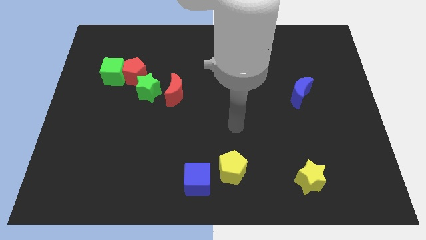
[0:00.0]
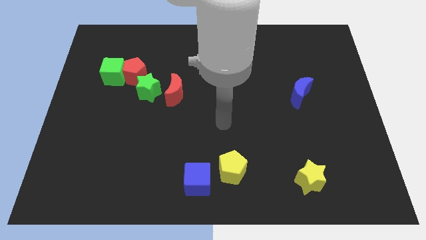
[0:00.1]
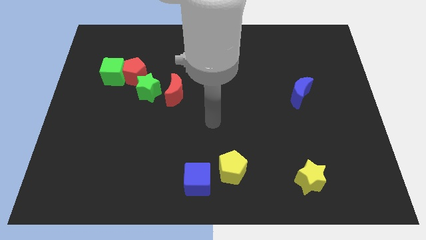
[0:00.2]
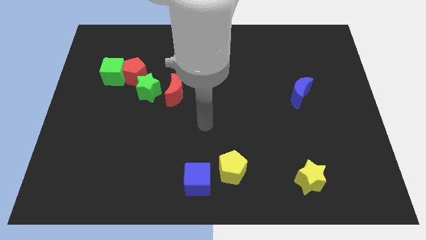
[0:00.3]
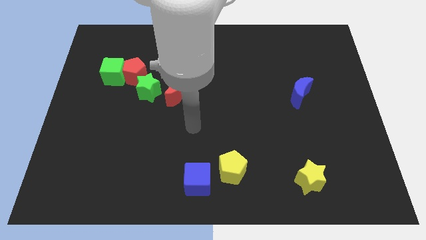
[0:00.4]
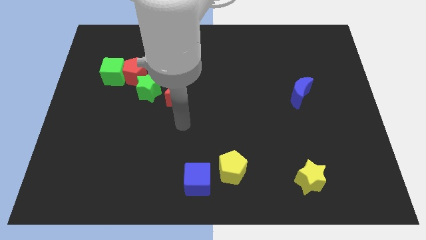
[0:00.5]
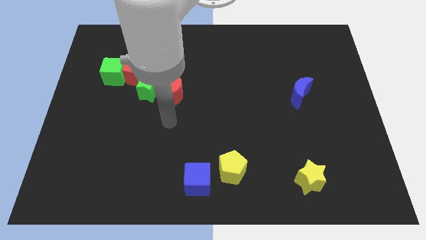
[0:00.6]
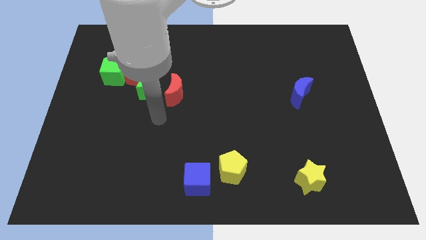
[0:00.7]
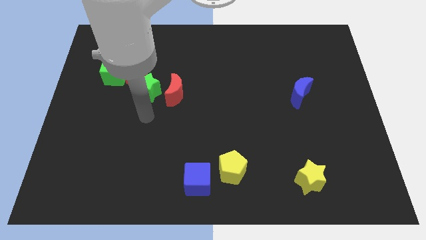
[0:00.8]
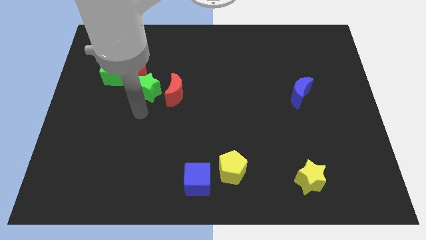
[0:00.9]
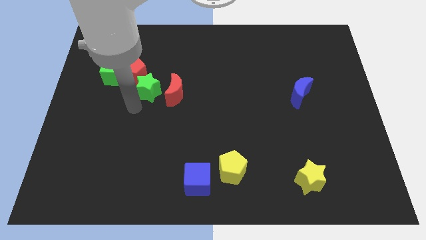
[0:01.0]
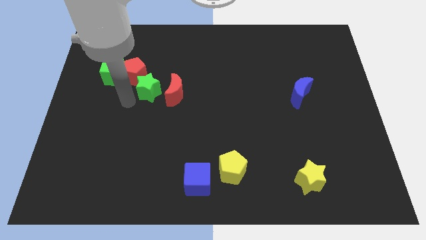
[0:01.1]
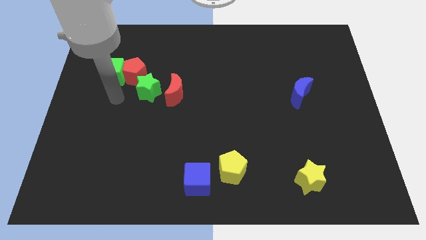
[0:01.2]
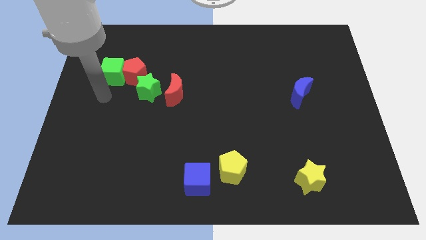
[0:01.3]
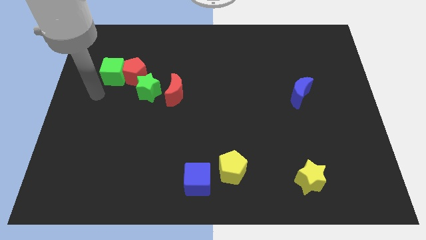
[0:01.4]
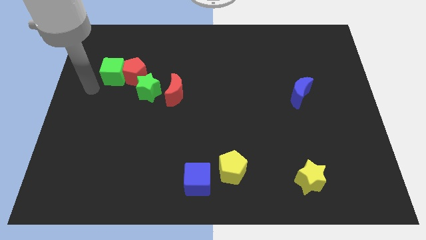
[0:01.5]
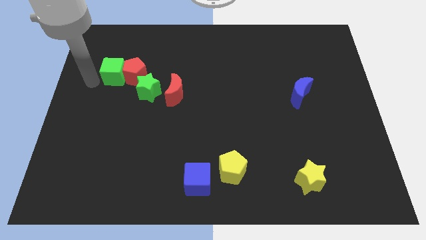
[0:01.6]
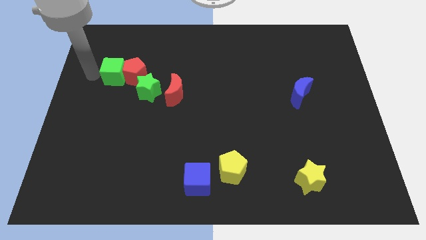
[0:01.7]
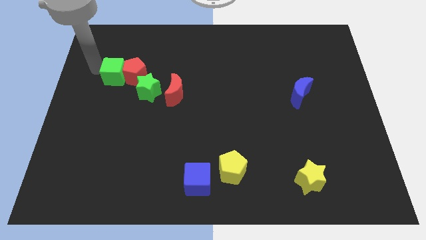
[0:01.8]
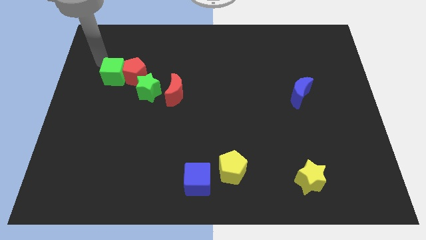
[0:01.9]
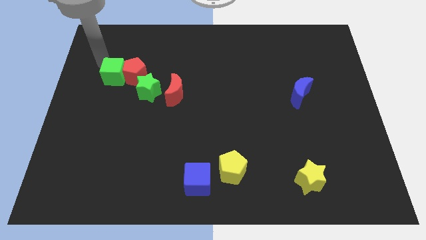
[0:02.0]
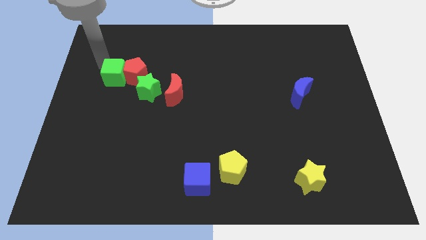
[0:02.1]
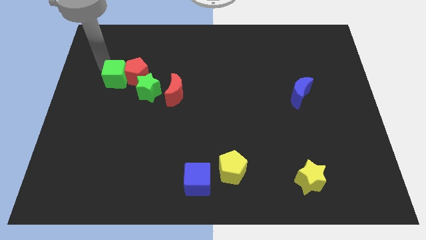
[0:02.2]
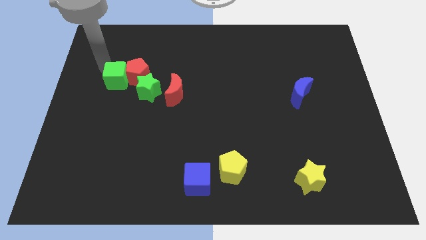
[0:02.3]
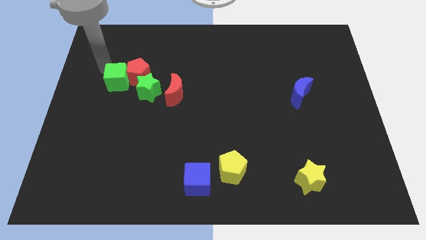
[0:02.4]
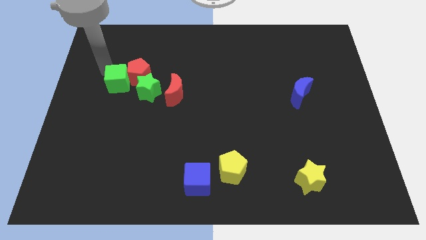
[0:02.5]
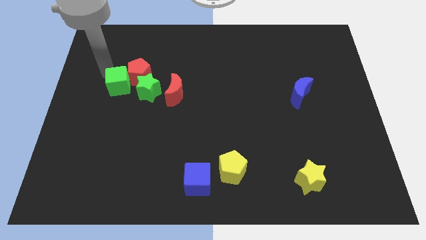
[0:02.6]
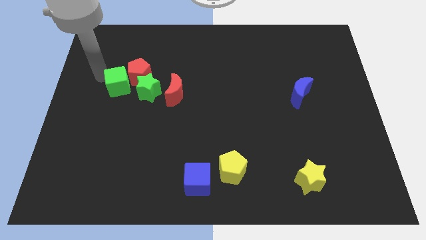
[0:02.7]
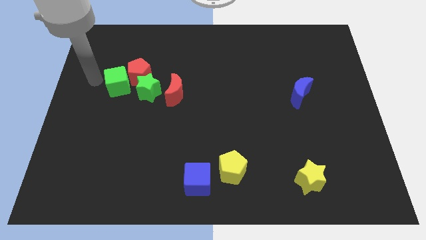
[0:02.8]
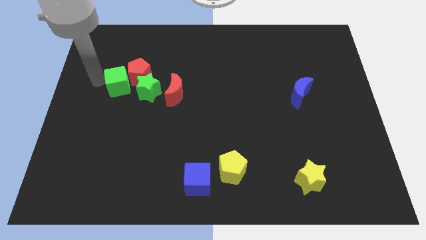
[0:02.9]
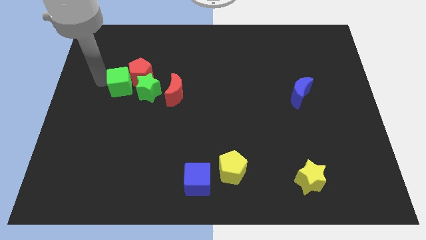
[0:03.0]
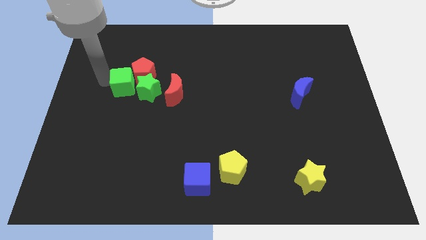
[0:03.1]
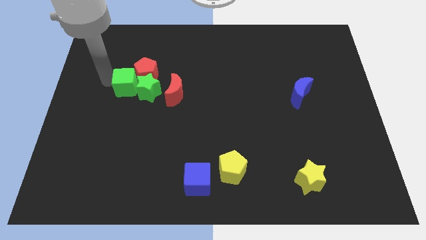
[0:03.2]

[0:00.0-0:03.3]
put the green cube close to the green star

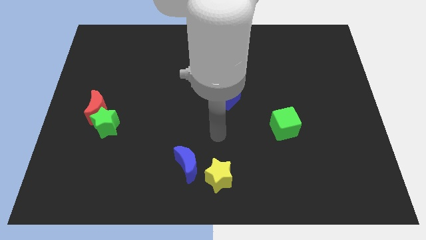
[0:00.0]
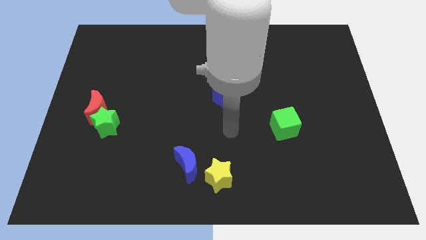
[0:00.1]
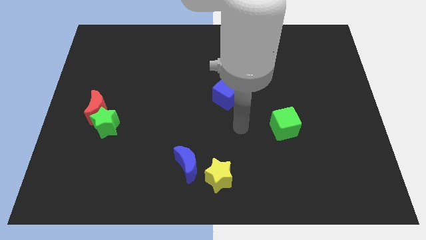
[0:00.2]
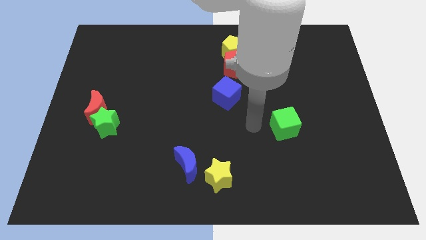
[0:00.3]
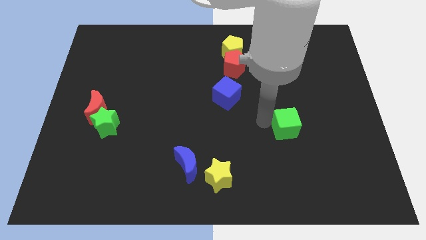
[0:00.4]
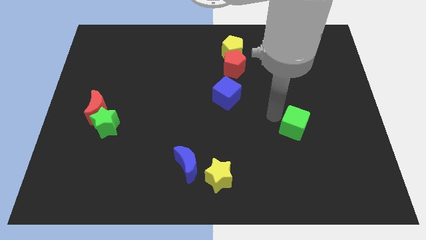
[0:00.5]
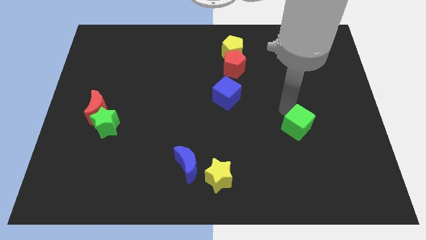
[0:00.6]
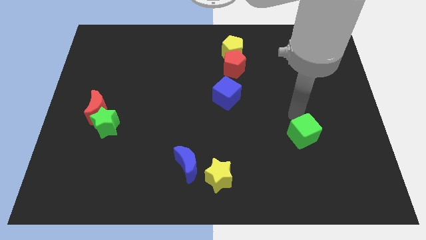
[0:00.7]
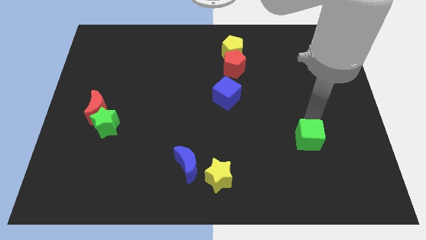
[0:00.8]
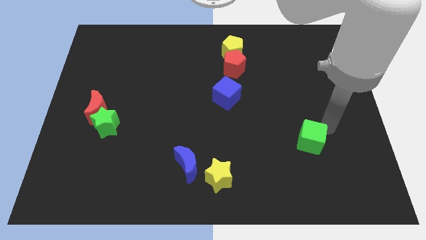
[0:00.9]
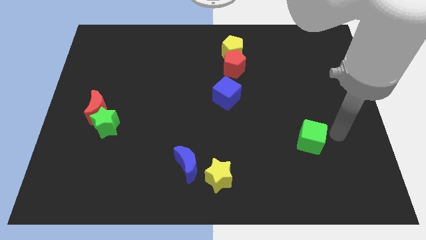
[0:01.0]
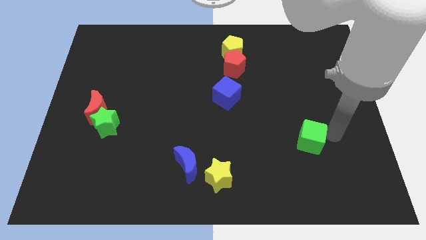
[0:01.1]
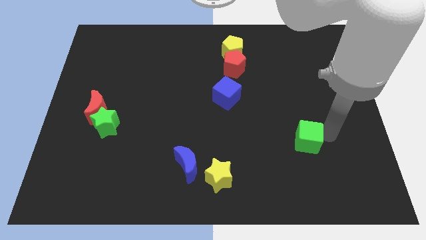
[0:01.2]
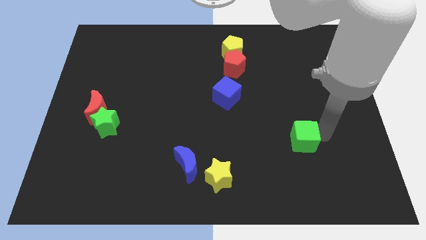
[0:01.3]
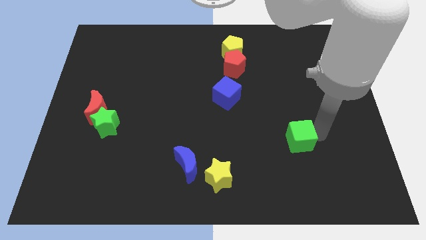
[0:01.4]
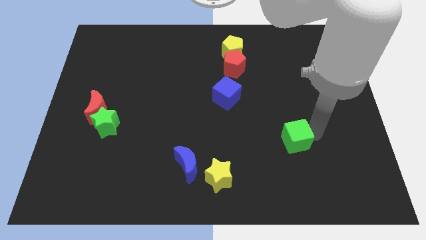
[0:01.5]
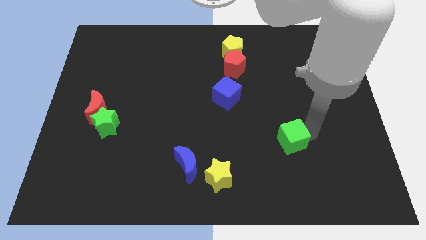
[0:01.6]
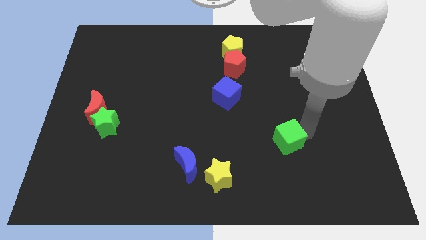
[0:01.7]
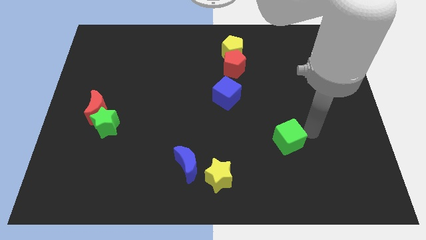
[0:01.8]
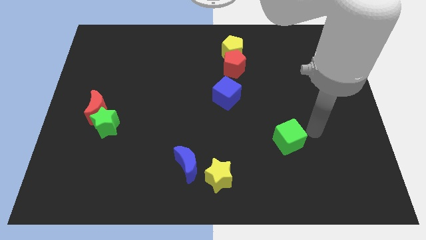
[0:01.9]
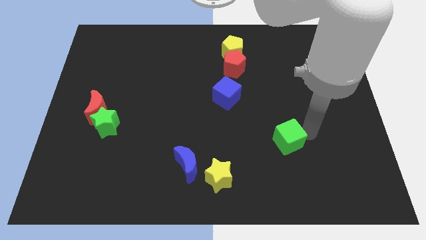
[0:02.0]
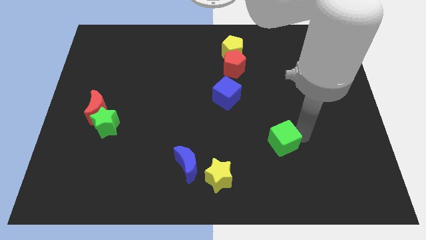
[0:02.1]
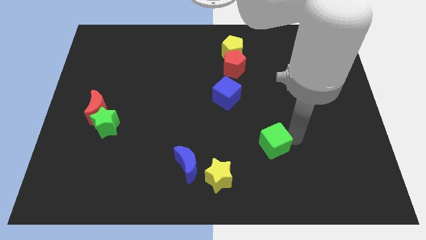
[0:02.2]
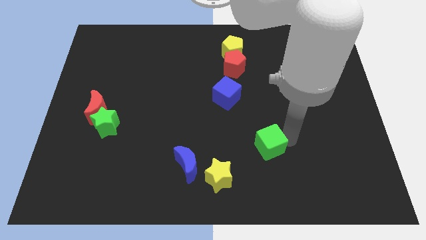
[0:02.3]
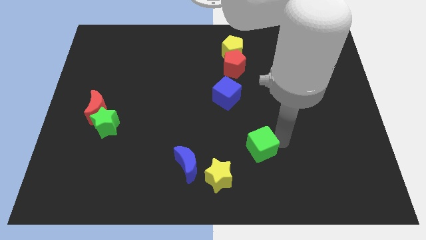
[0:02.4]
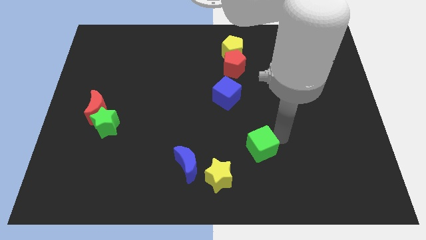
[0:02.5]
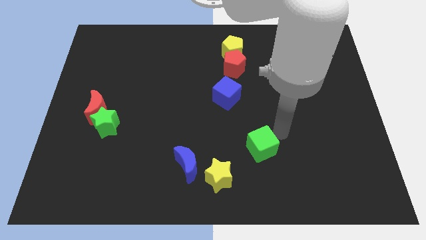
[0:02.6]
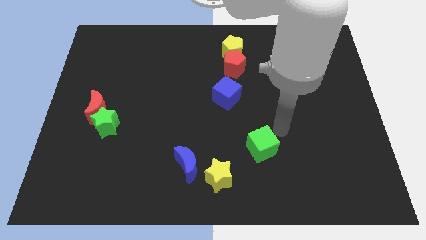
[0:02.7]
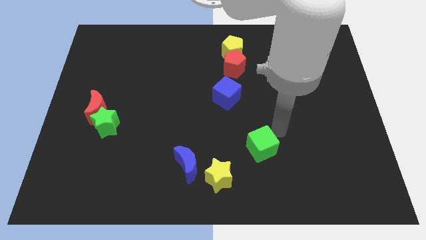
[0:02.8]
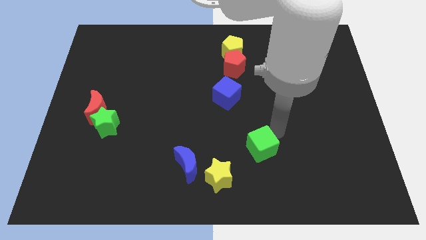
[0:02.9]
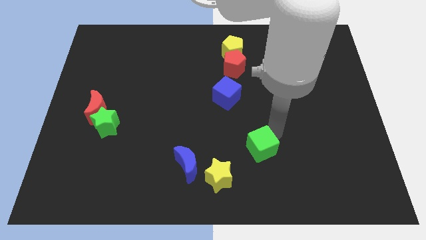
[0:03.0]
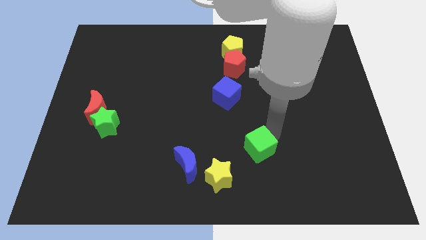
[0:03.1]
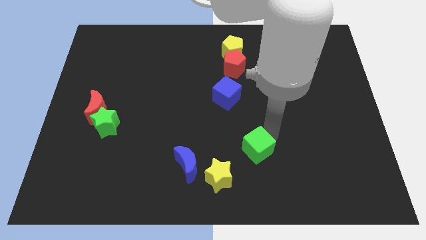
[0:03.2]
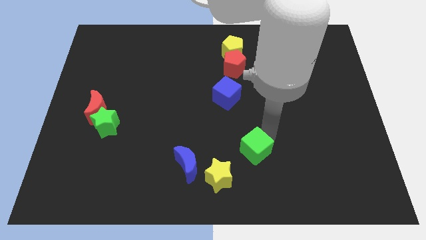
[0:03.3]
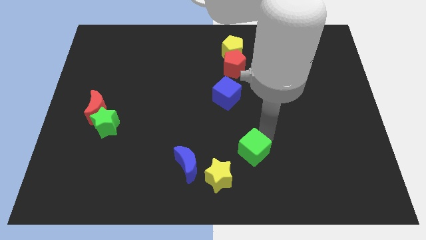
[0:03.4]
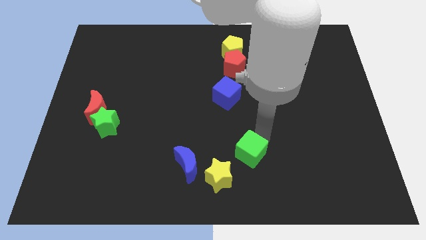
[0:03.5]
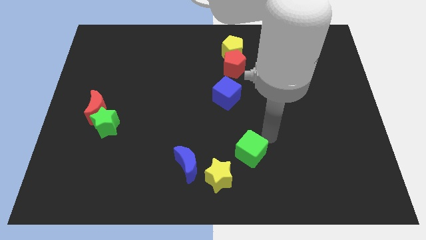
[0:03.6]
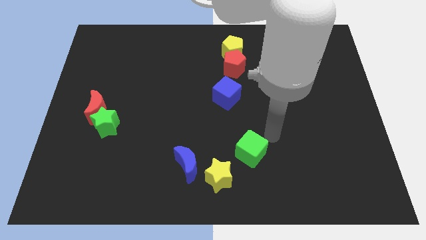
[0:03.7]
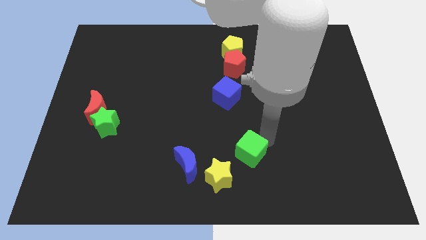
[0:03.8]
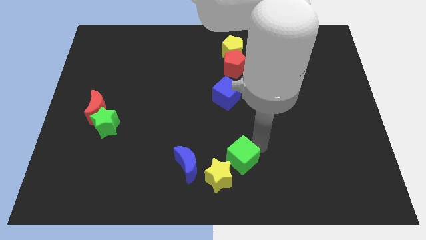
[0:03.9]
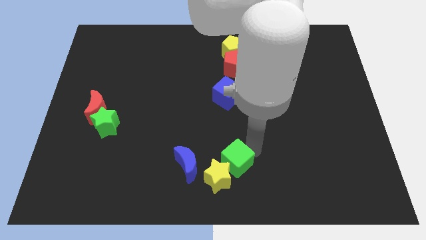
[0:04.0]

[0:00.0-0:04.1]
slide the green cube next to the yellow star

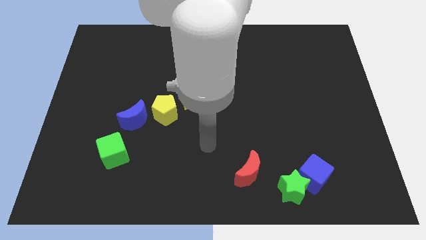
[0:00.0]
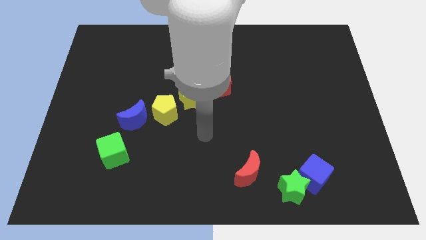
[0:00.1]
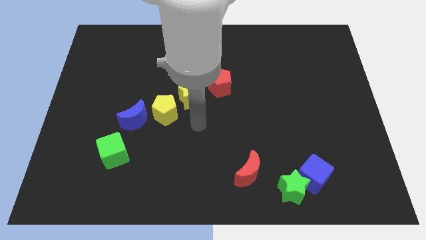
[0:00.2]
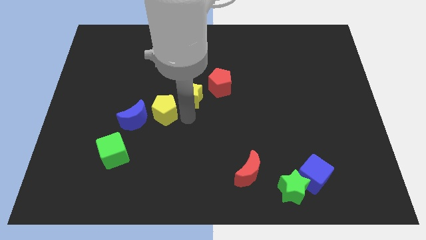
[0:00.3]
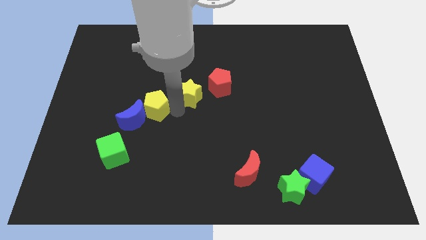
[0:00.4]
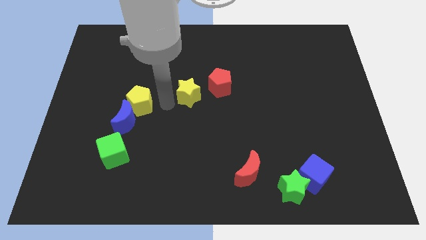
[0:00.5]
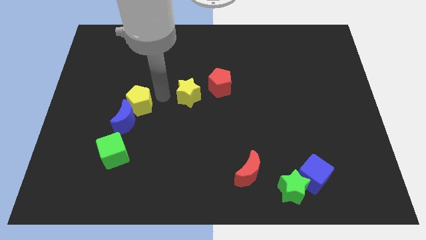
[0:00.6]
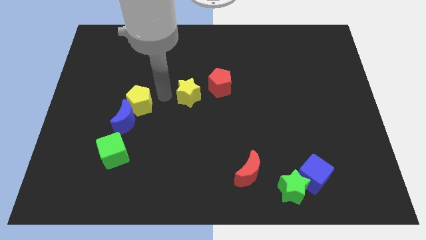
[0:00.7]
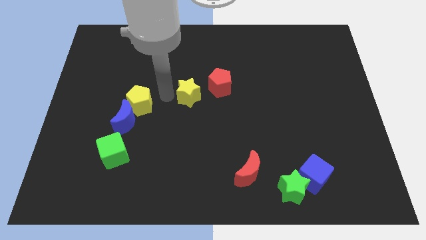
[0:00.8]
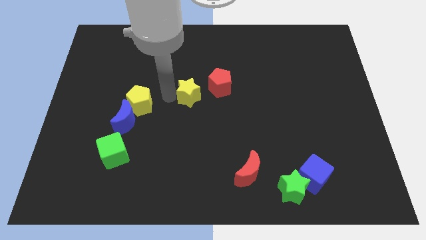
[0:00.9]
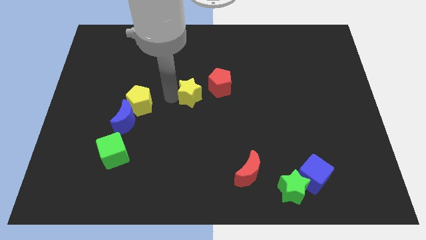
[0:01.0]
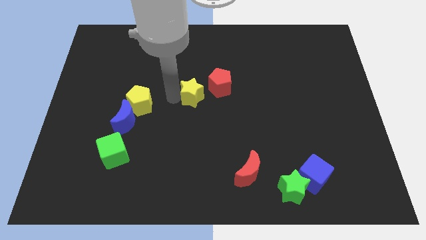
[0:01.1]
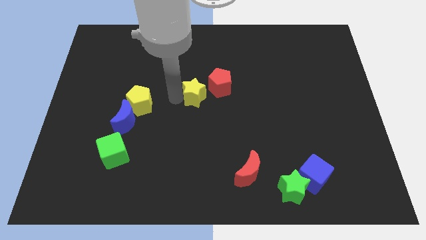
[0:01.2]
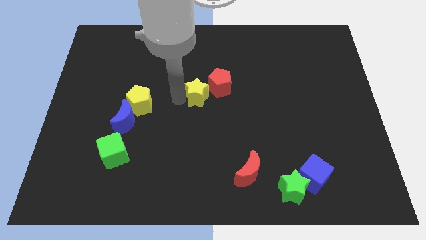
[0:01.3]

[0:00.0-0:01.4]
put the yellow star towards the red pentagon
